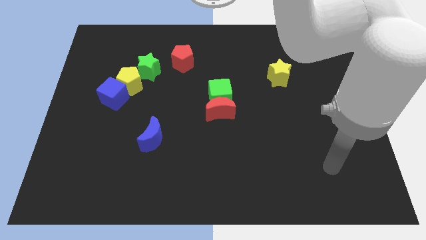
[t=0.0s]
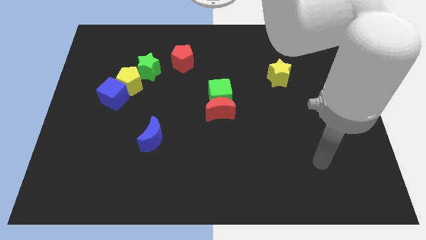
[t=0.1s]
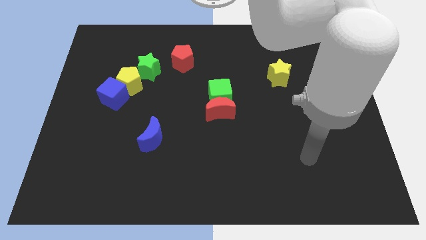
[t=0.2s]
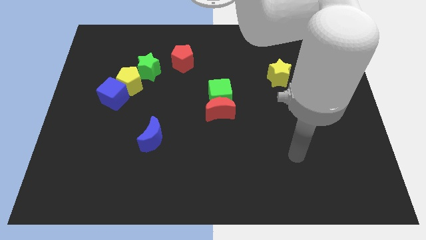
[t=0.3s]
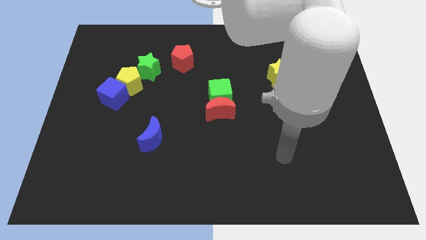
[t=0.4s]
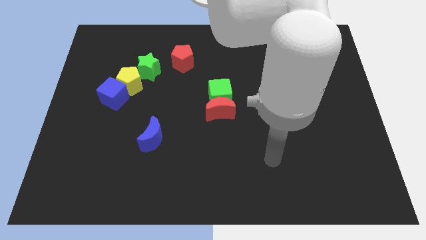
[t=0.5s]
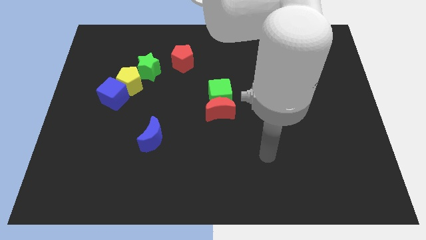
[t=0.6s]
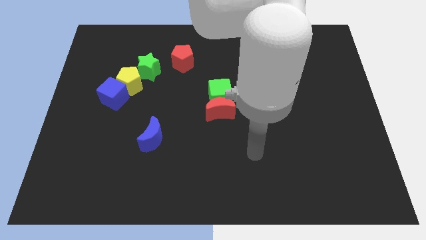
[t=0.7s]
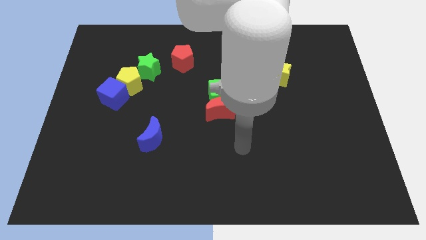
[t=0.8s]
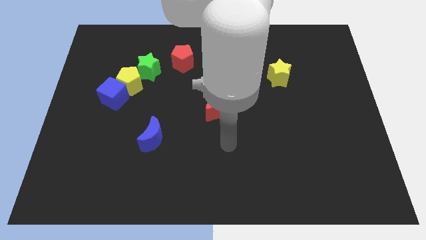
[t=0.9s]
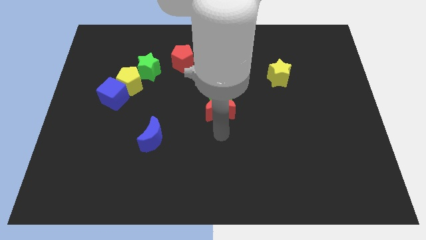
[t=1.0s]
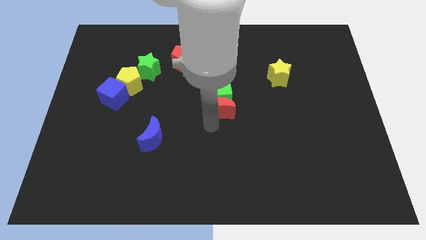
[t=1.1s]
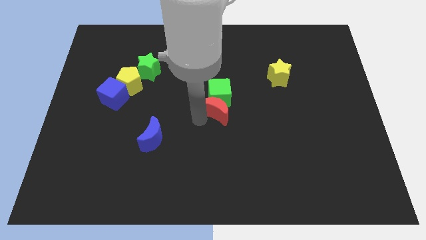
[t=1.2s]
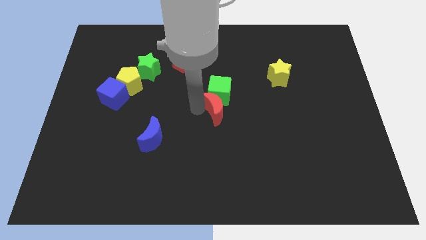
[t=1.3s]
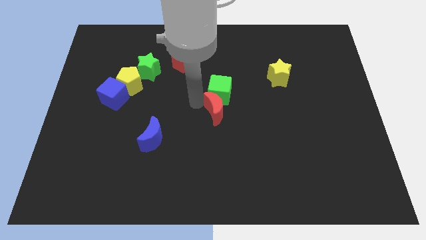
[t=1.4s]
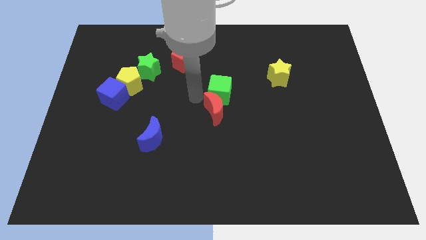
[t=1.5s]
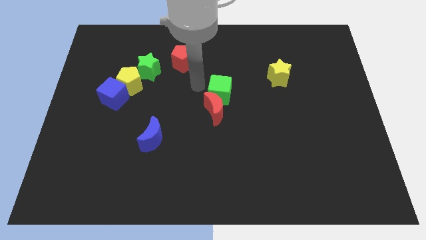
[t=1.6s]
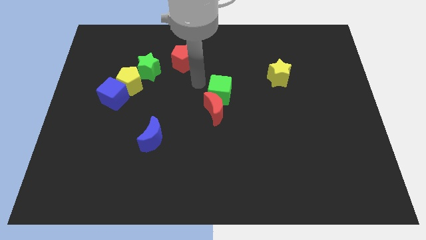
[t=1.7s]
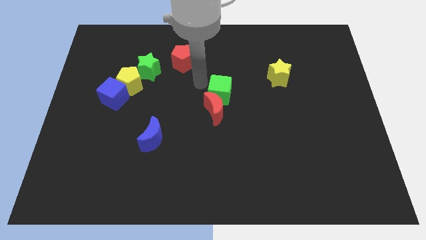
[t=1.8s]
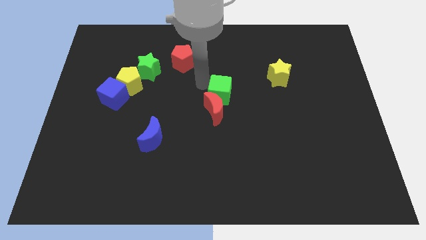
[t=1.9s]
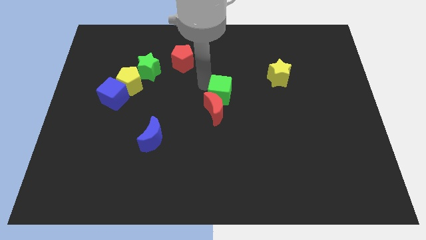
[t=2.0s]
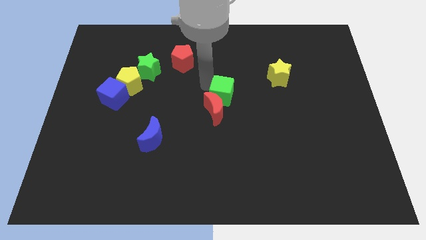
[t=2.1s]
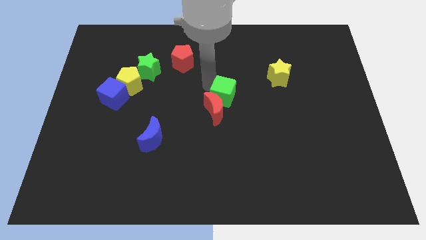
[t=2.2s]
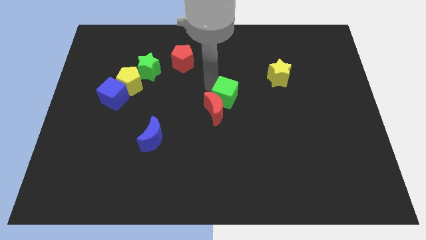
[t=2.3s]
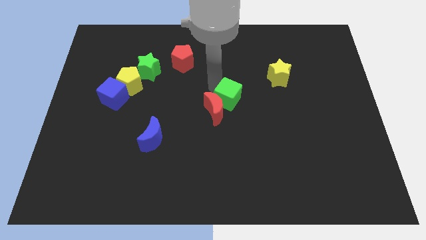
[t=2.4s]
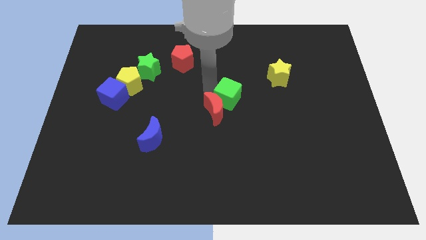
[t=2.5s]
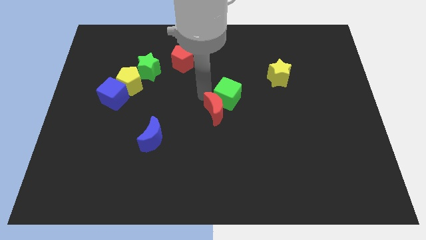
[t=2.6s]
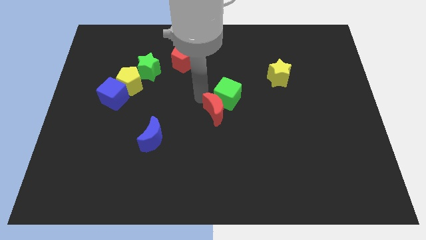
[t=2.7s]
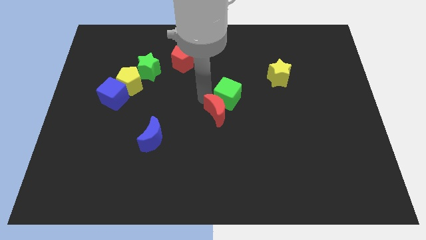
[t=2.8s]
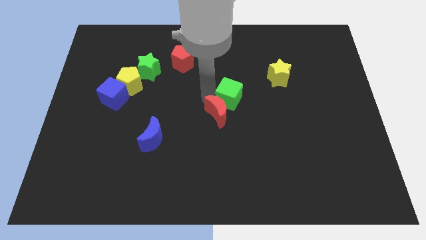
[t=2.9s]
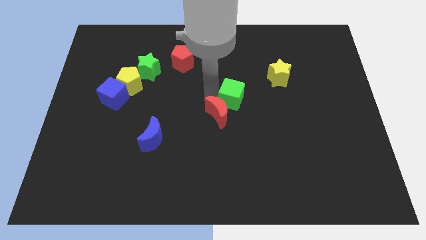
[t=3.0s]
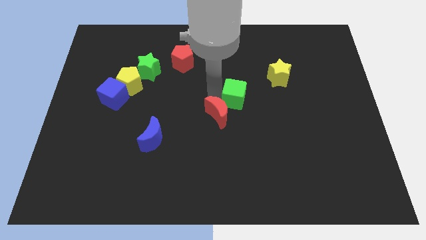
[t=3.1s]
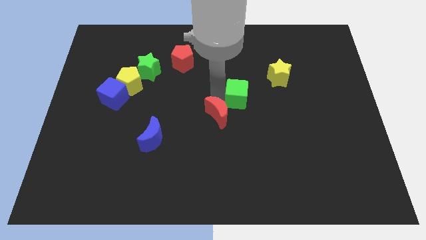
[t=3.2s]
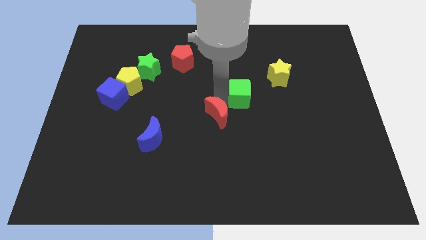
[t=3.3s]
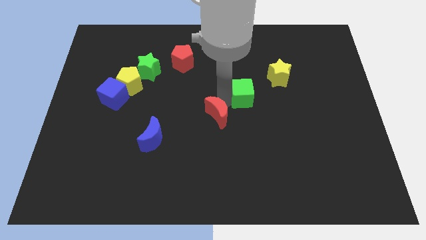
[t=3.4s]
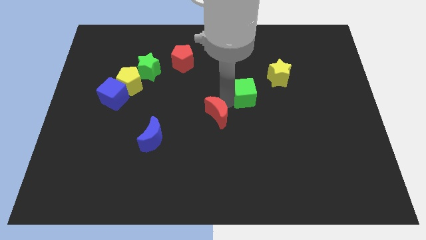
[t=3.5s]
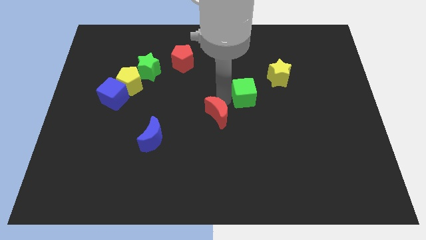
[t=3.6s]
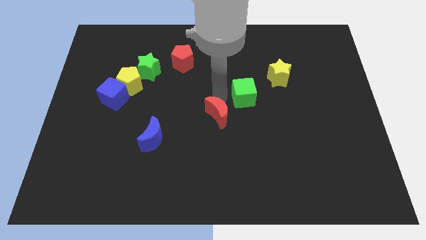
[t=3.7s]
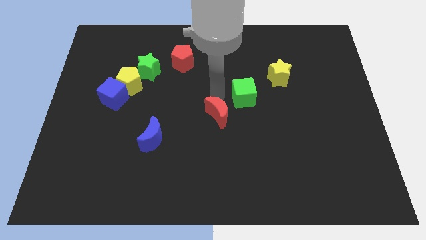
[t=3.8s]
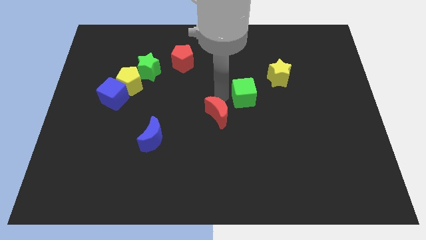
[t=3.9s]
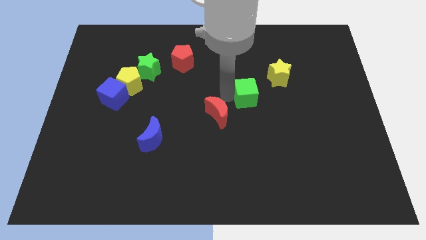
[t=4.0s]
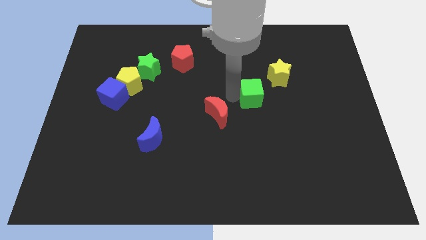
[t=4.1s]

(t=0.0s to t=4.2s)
push the green cube to the right a bit

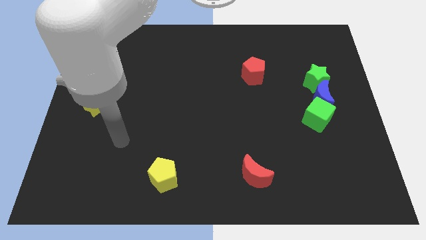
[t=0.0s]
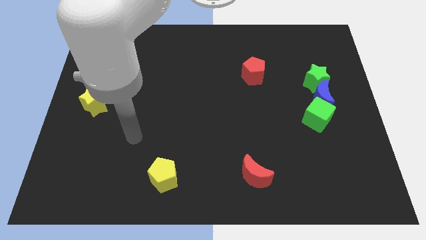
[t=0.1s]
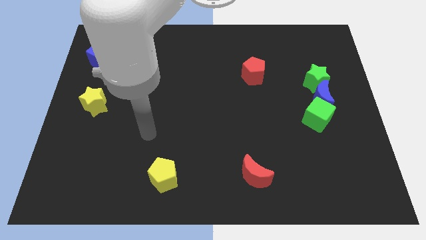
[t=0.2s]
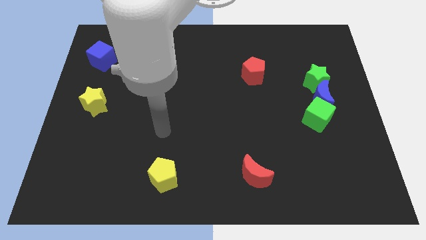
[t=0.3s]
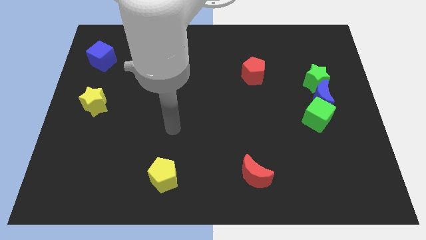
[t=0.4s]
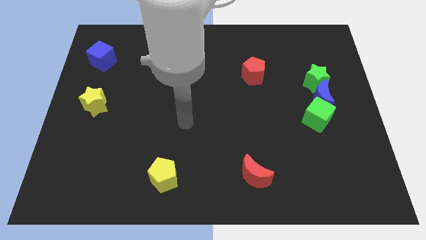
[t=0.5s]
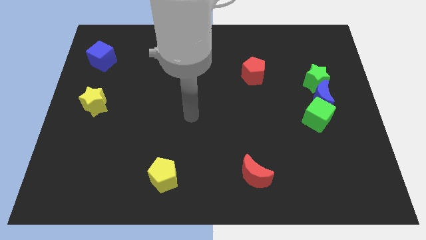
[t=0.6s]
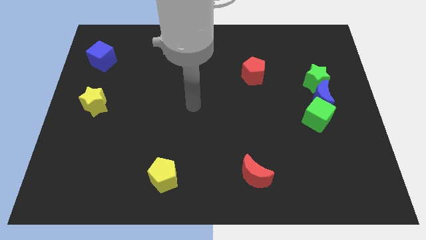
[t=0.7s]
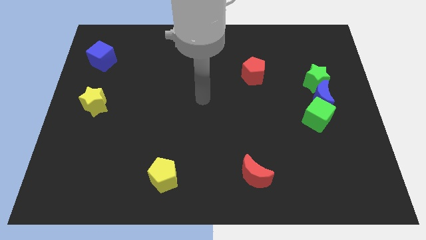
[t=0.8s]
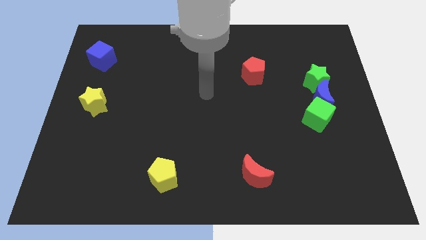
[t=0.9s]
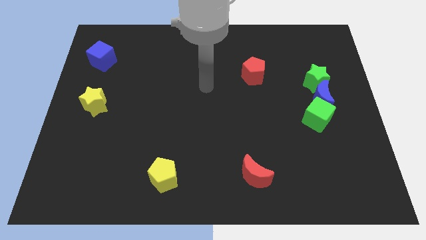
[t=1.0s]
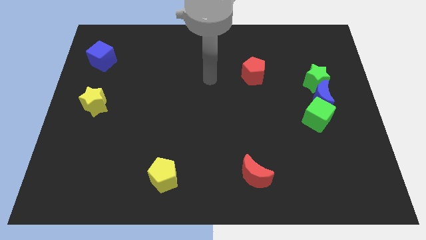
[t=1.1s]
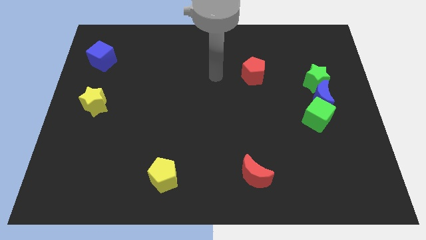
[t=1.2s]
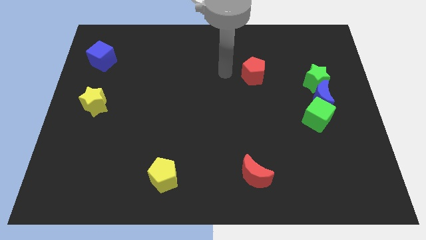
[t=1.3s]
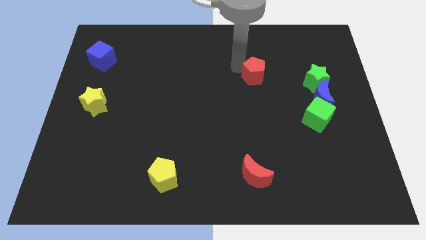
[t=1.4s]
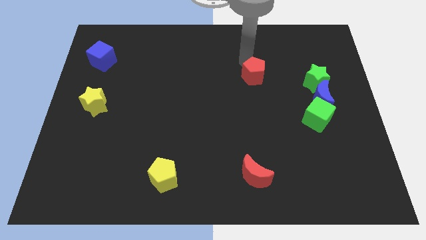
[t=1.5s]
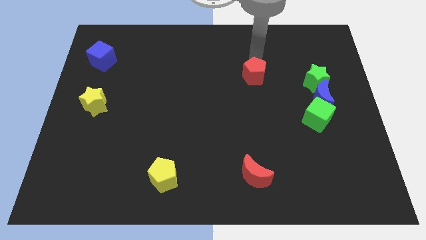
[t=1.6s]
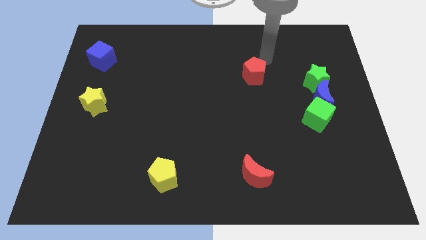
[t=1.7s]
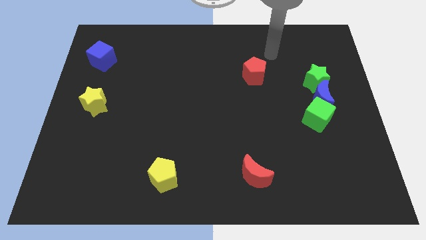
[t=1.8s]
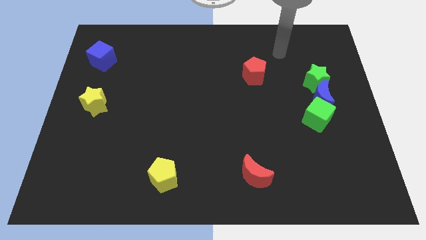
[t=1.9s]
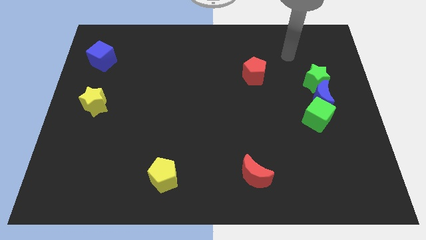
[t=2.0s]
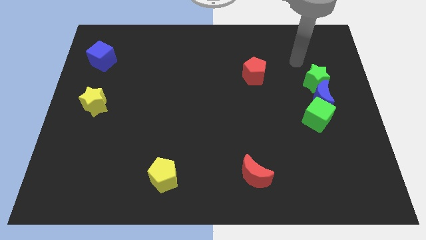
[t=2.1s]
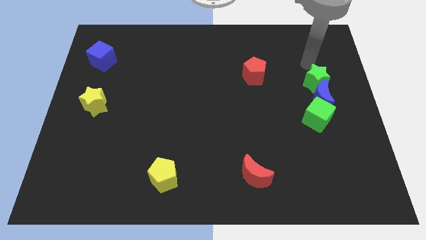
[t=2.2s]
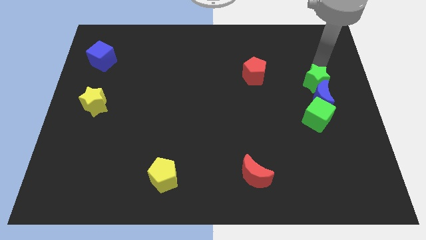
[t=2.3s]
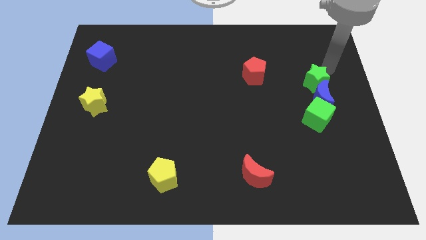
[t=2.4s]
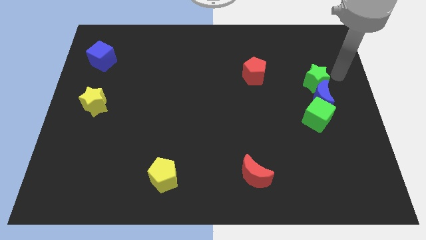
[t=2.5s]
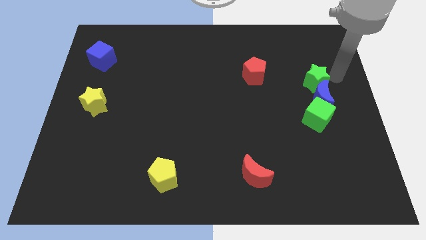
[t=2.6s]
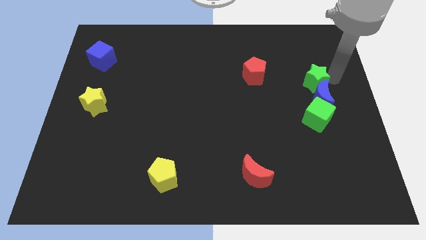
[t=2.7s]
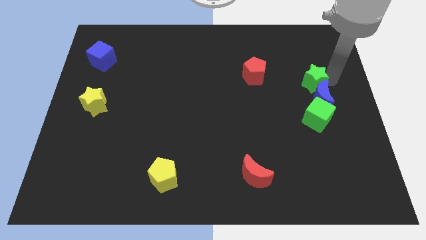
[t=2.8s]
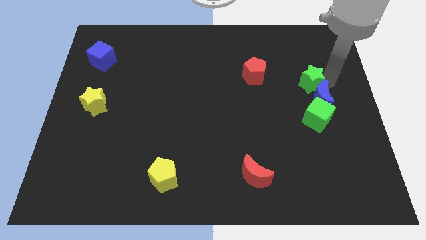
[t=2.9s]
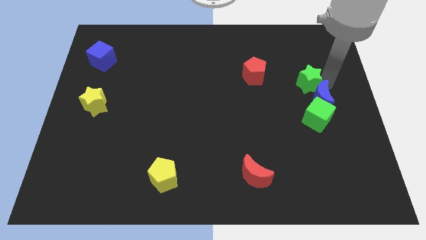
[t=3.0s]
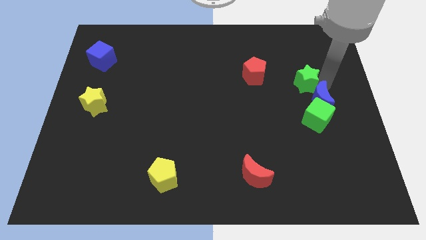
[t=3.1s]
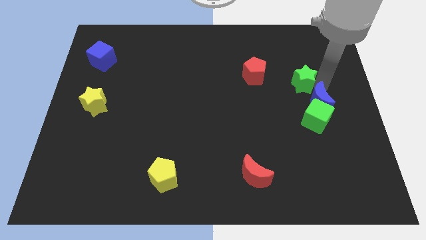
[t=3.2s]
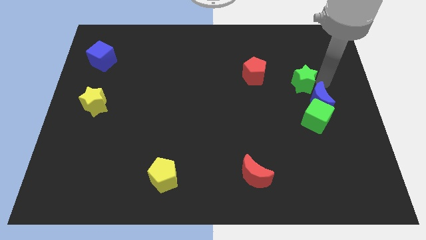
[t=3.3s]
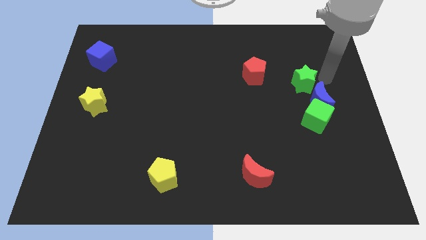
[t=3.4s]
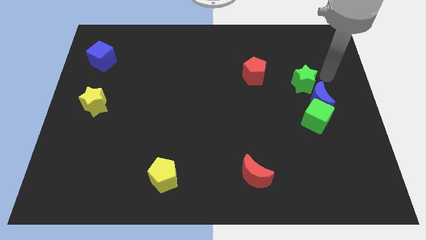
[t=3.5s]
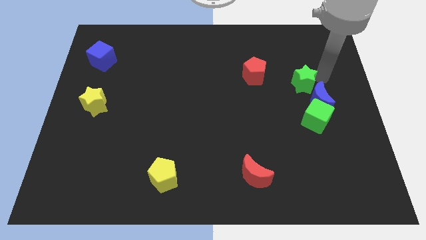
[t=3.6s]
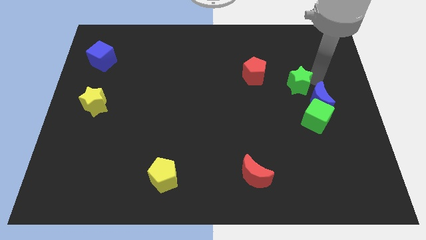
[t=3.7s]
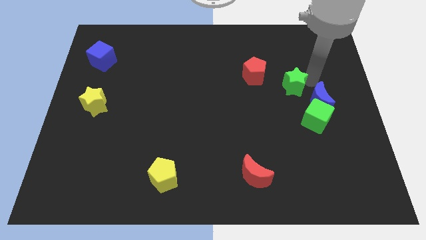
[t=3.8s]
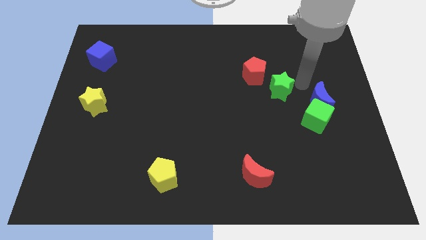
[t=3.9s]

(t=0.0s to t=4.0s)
move the green star a little left
